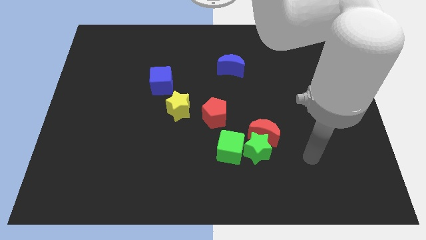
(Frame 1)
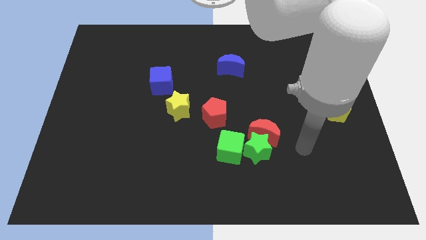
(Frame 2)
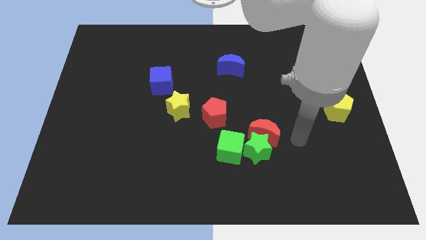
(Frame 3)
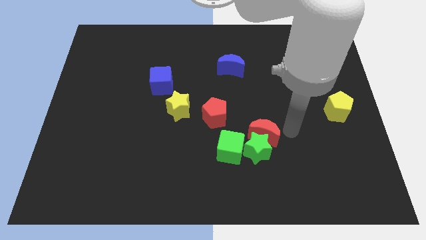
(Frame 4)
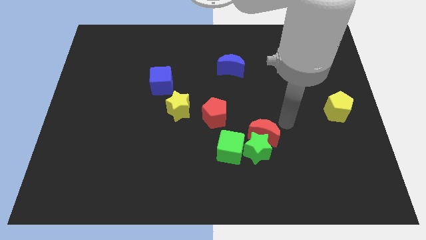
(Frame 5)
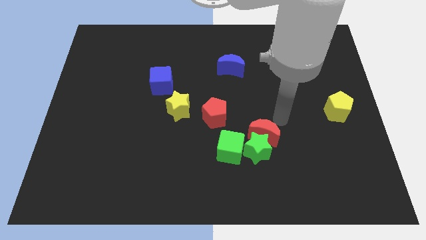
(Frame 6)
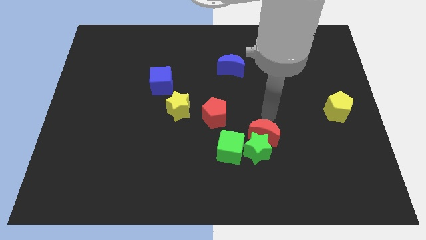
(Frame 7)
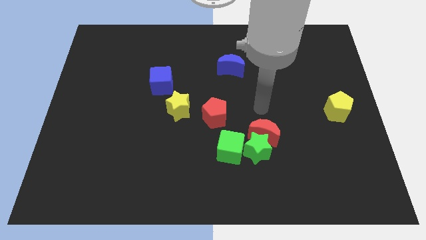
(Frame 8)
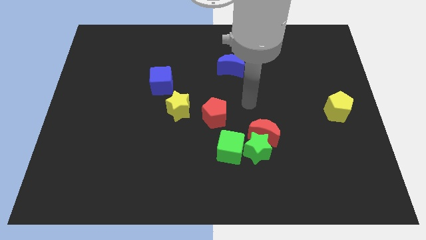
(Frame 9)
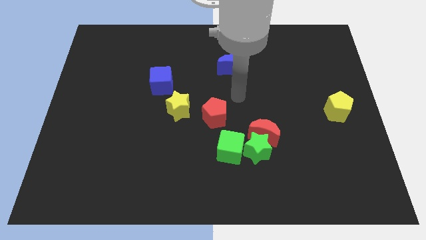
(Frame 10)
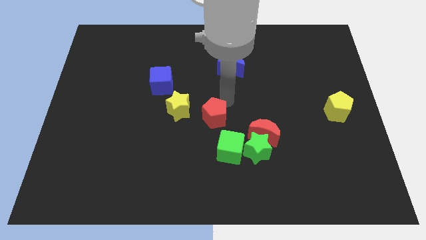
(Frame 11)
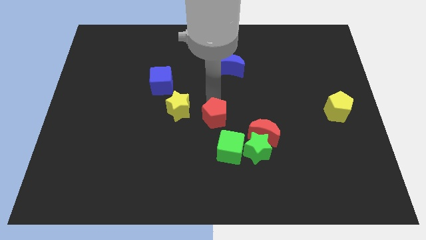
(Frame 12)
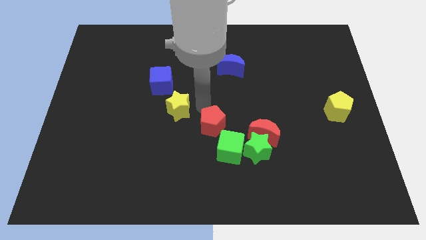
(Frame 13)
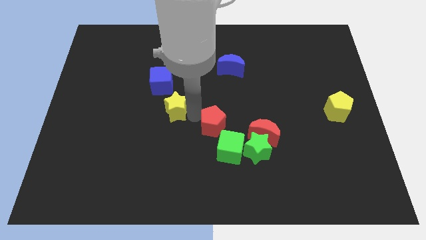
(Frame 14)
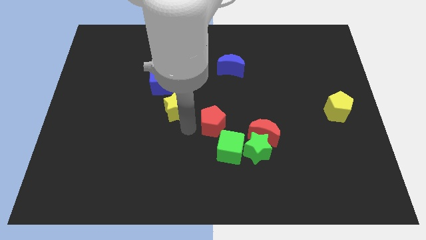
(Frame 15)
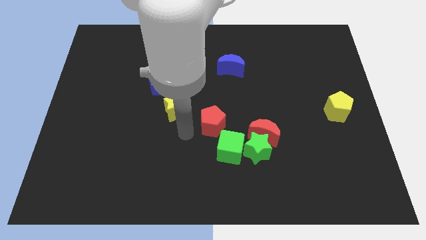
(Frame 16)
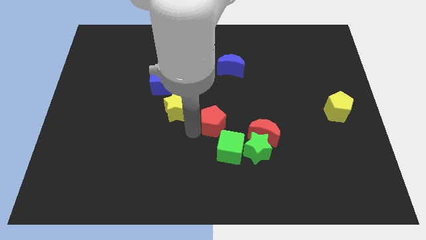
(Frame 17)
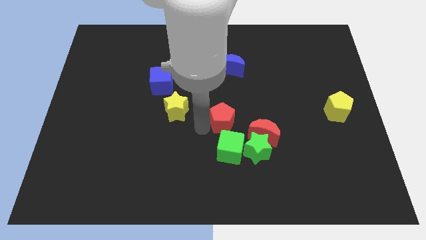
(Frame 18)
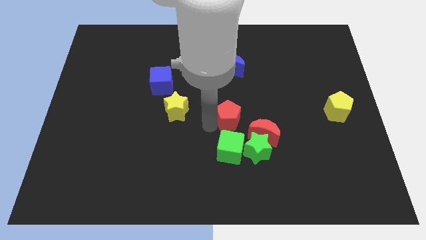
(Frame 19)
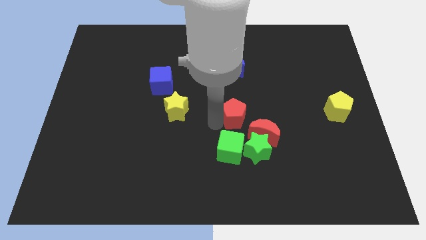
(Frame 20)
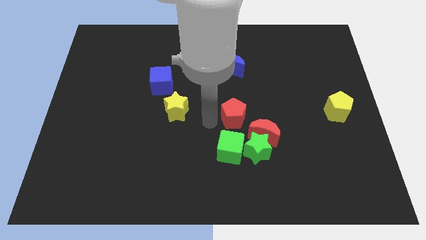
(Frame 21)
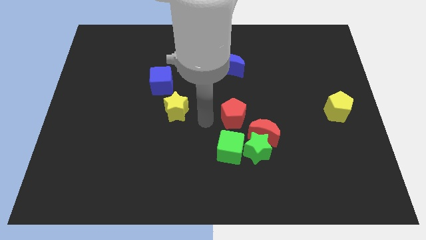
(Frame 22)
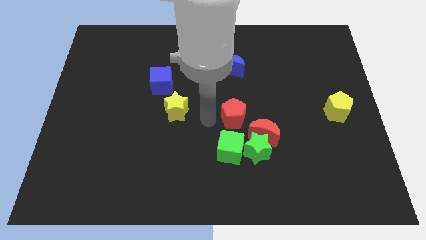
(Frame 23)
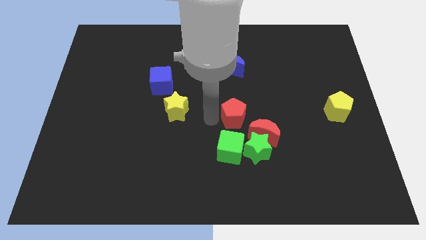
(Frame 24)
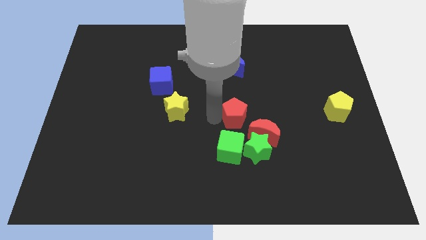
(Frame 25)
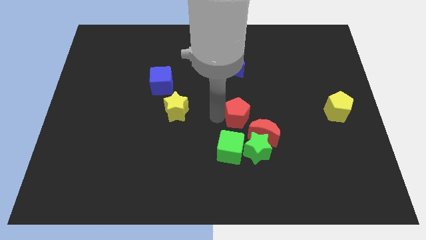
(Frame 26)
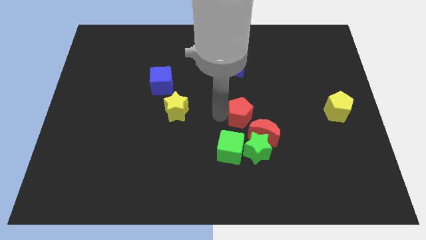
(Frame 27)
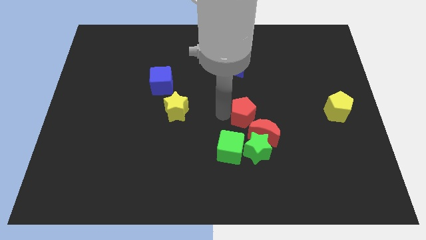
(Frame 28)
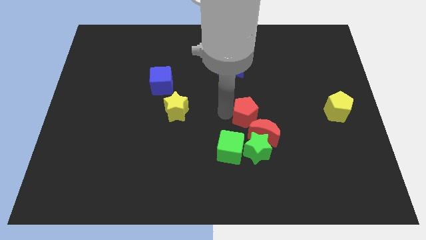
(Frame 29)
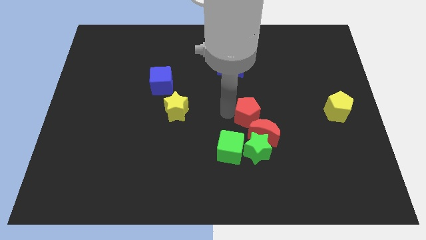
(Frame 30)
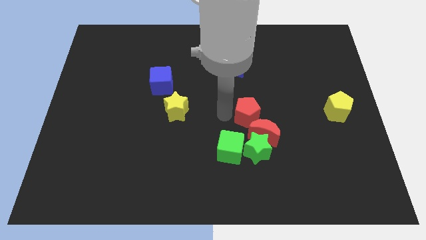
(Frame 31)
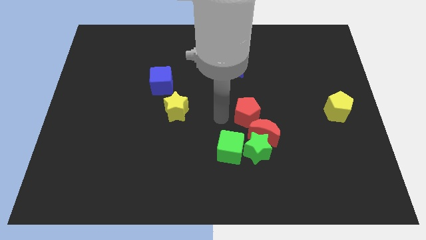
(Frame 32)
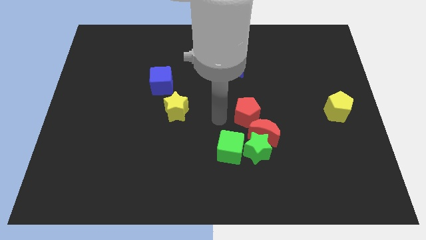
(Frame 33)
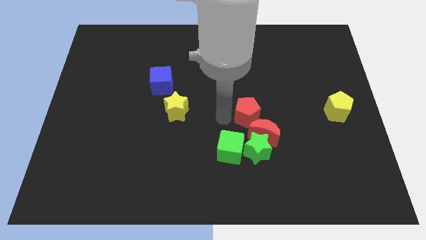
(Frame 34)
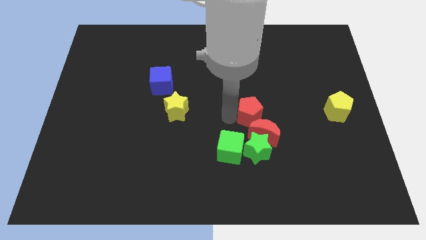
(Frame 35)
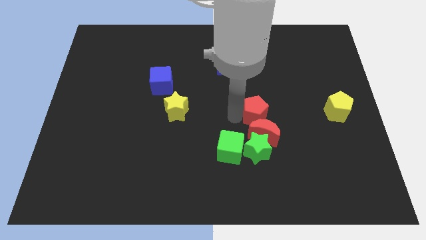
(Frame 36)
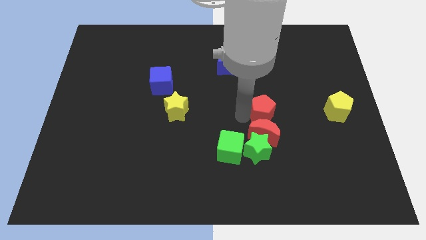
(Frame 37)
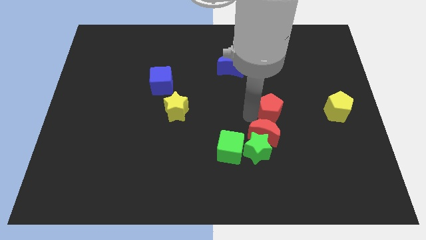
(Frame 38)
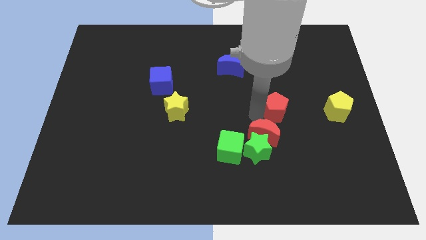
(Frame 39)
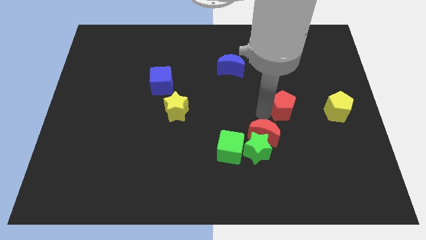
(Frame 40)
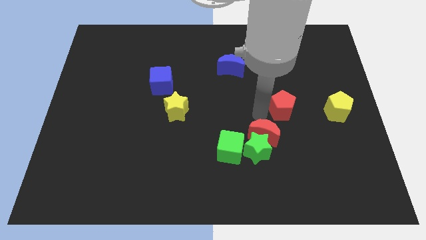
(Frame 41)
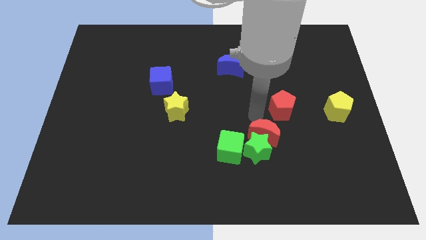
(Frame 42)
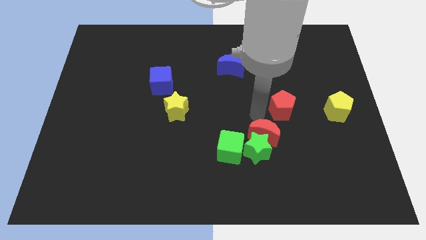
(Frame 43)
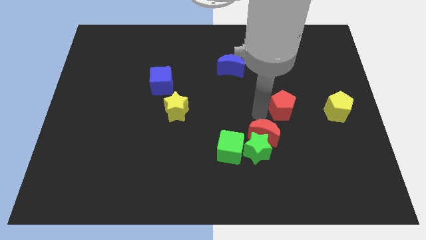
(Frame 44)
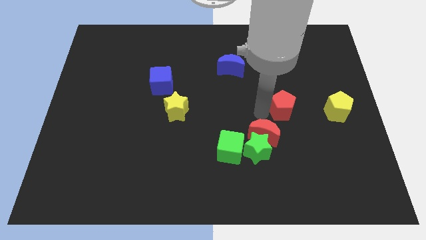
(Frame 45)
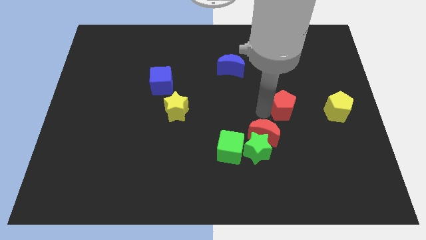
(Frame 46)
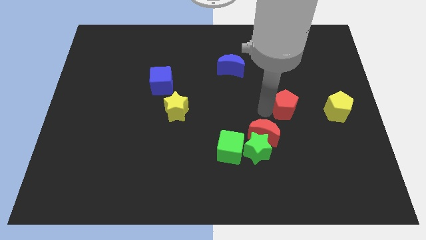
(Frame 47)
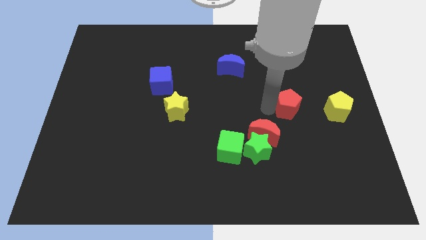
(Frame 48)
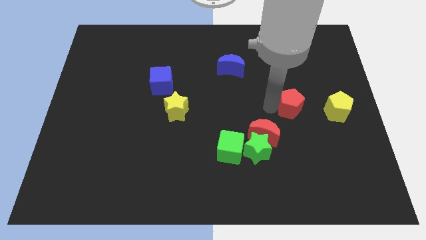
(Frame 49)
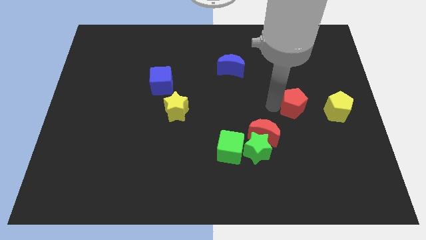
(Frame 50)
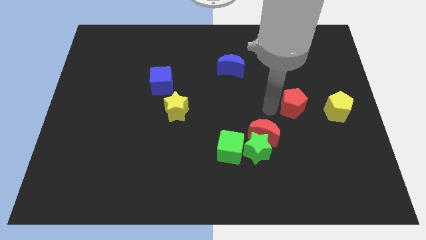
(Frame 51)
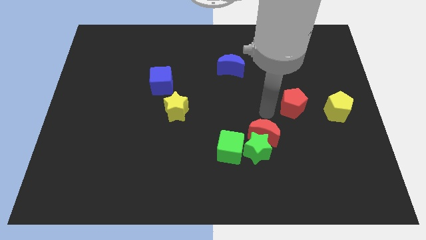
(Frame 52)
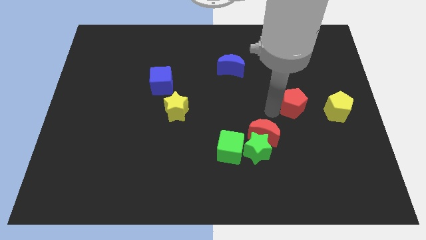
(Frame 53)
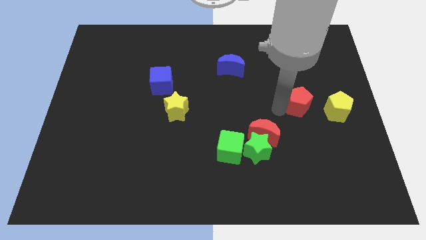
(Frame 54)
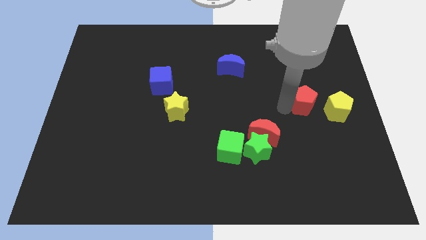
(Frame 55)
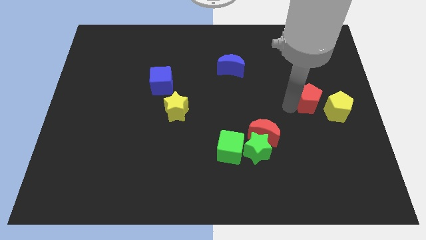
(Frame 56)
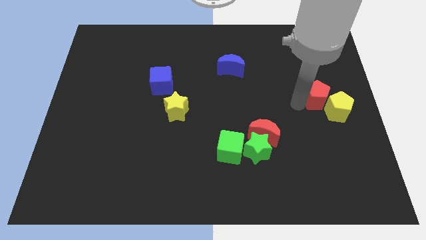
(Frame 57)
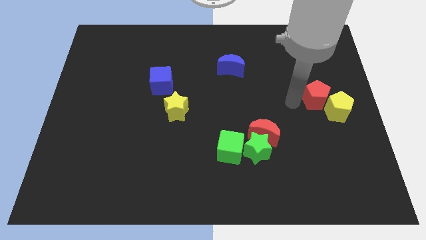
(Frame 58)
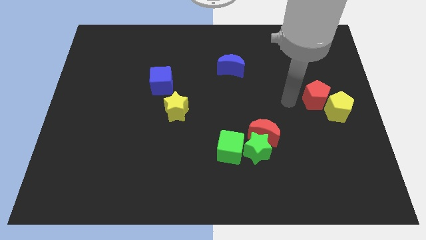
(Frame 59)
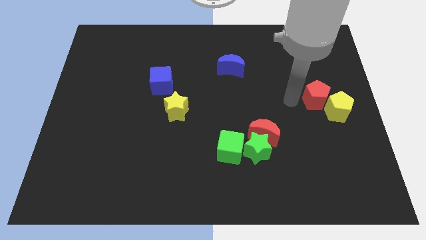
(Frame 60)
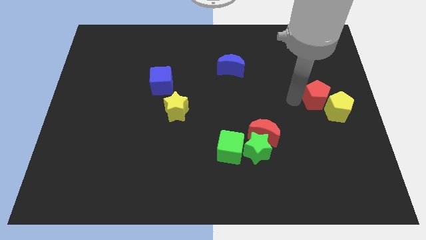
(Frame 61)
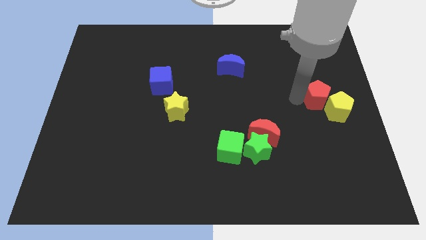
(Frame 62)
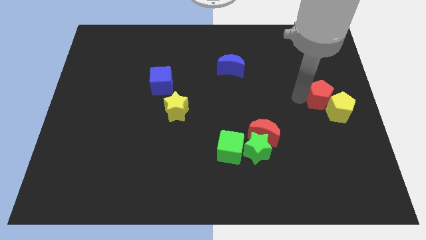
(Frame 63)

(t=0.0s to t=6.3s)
slide the red pentagon to the right side of the board

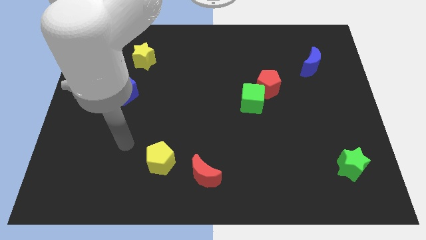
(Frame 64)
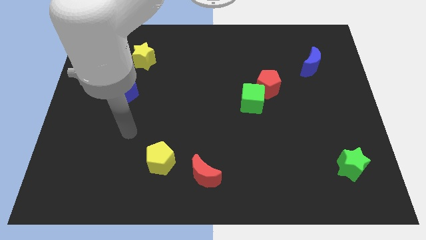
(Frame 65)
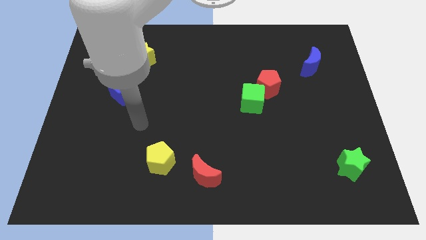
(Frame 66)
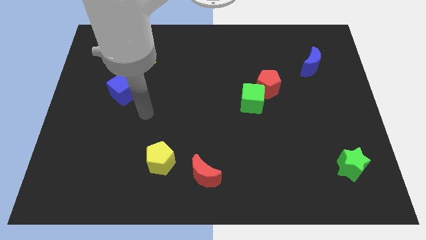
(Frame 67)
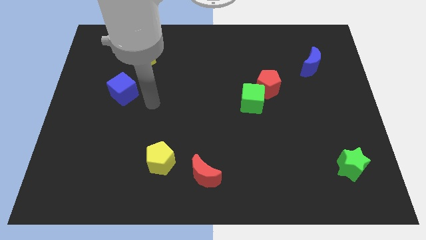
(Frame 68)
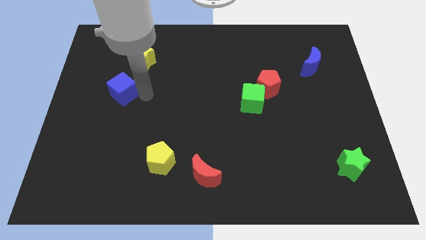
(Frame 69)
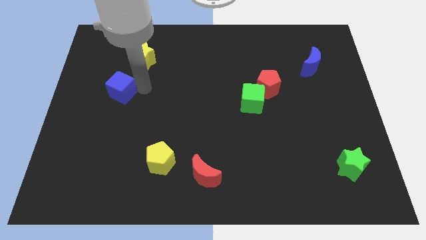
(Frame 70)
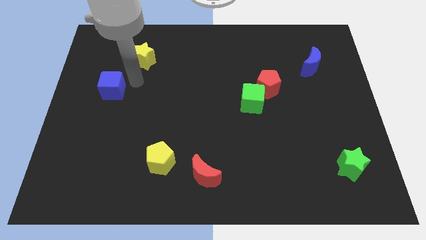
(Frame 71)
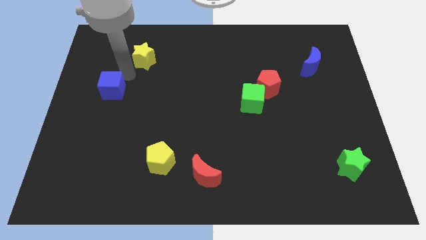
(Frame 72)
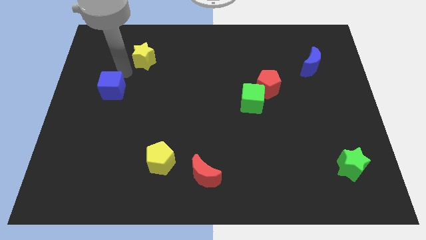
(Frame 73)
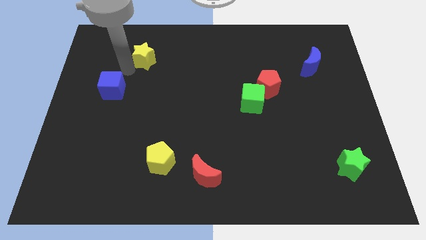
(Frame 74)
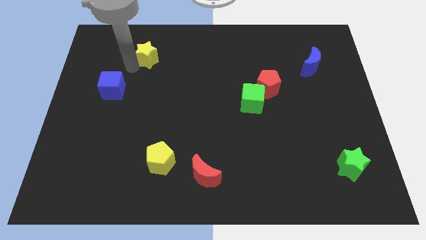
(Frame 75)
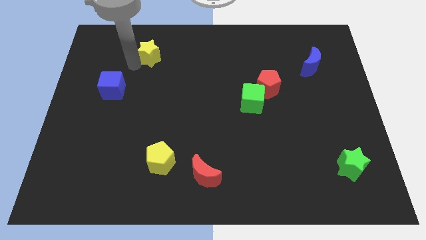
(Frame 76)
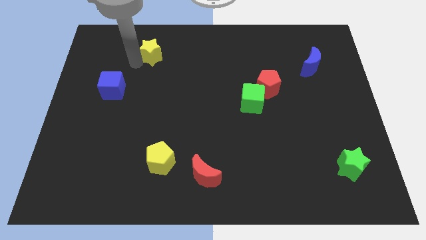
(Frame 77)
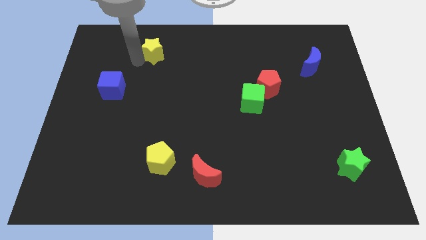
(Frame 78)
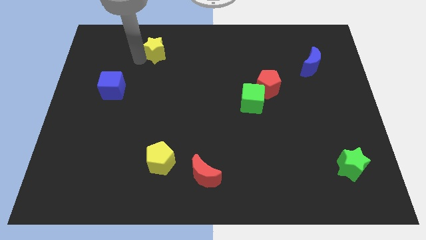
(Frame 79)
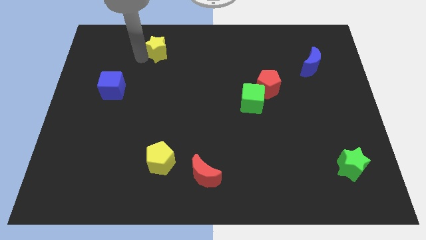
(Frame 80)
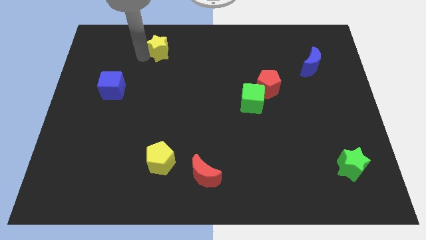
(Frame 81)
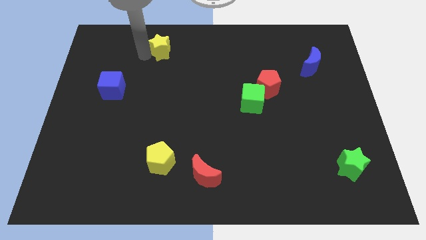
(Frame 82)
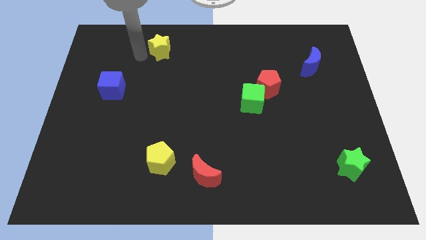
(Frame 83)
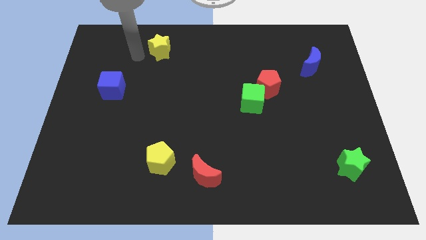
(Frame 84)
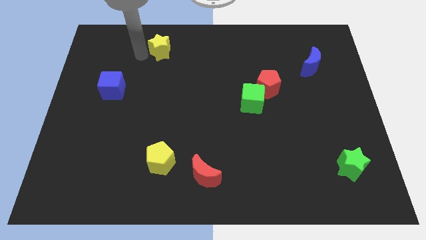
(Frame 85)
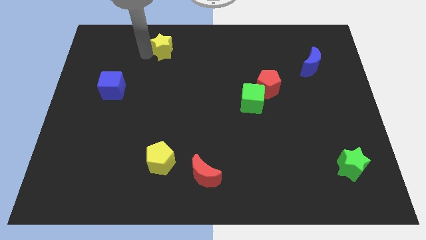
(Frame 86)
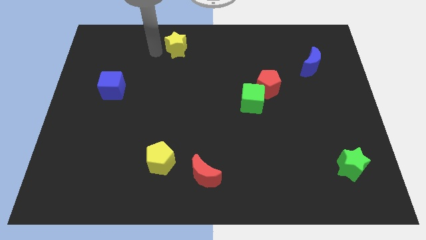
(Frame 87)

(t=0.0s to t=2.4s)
push the yellow star to the top
